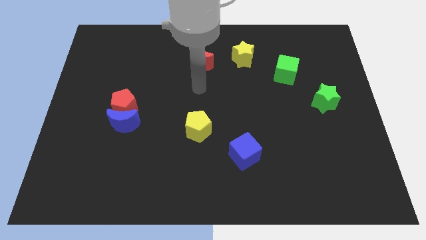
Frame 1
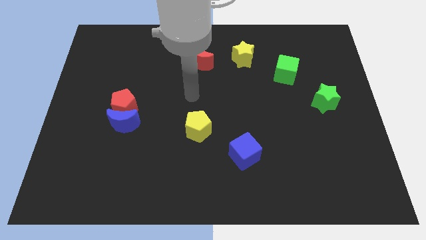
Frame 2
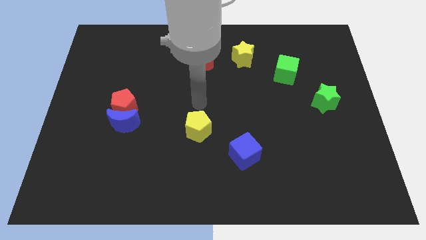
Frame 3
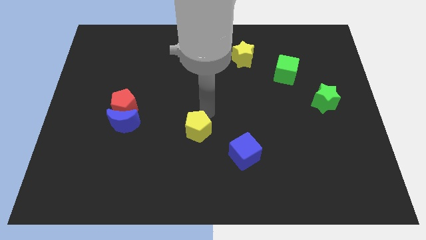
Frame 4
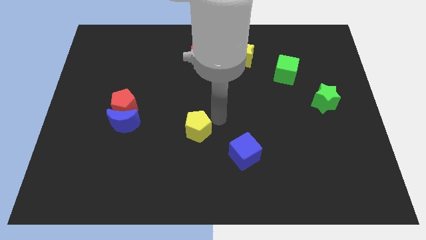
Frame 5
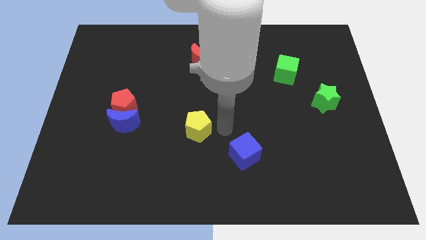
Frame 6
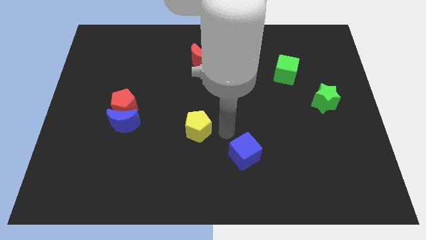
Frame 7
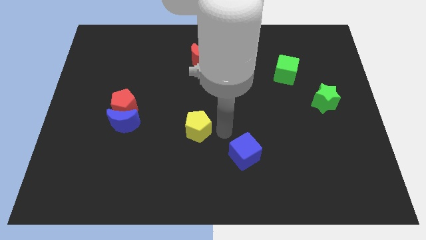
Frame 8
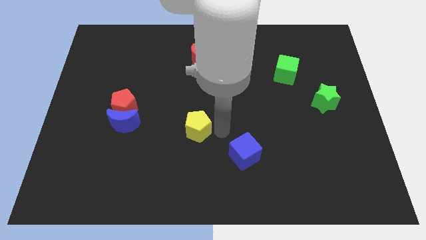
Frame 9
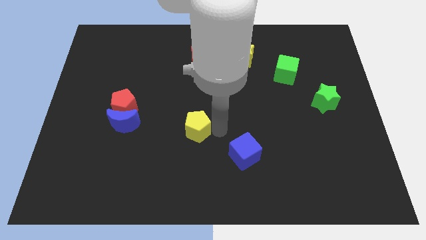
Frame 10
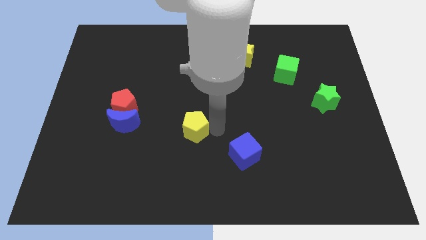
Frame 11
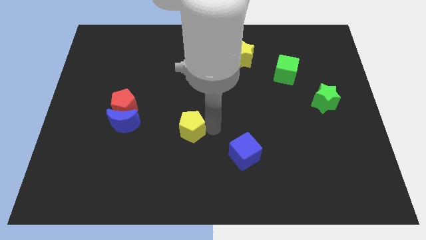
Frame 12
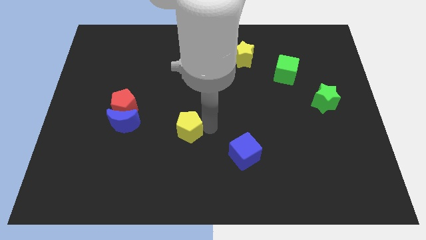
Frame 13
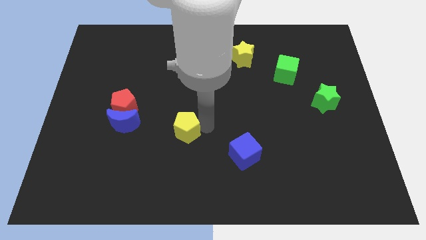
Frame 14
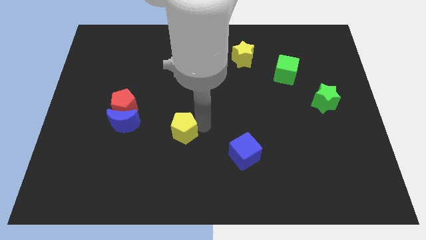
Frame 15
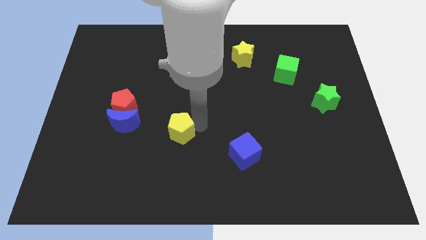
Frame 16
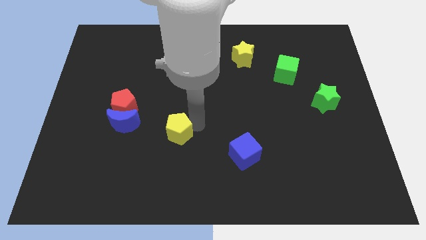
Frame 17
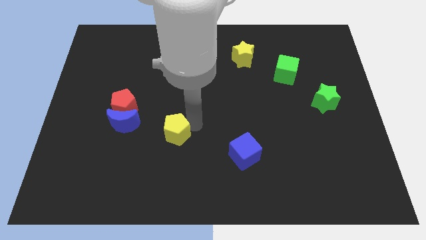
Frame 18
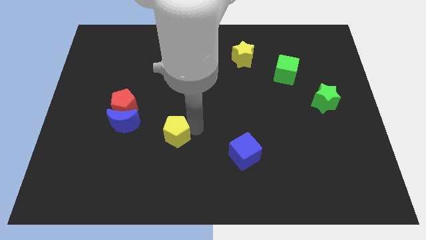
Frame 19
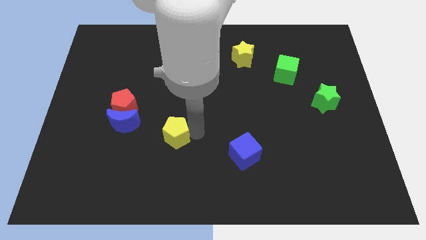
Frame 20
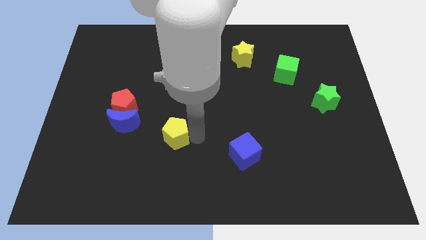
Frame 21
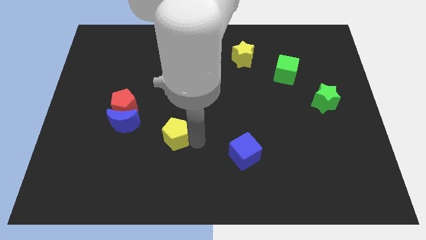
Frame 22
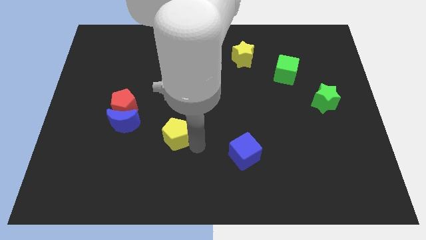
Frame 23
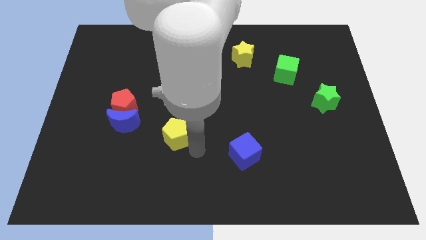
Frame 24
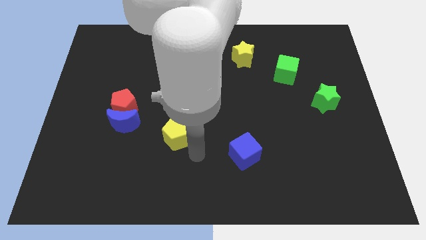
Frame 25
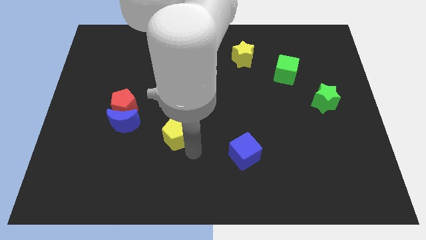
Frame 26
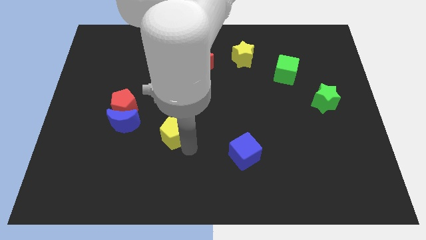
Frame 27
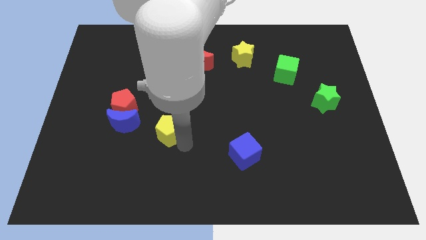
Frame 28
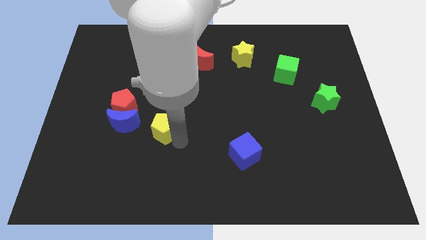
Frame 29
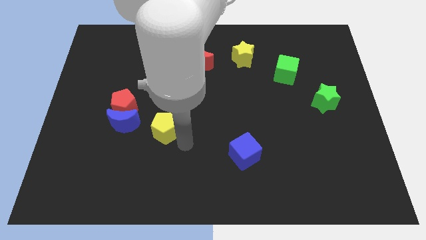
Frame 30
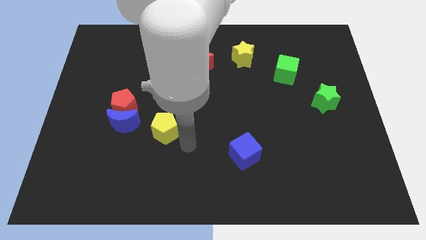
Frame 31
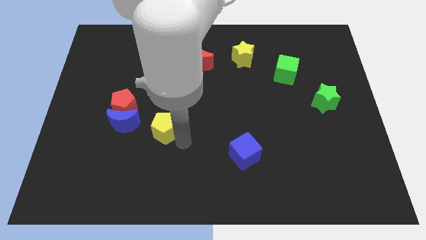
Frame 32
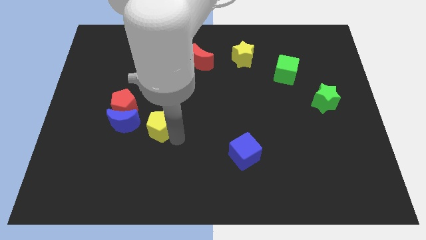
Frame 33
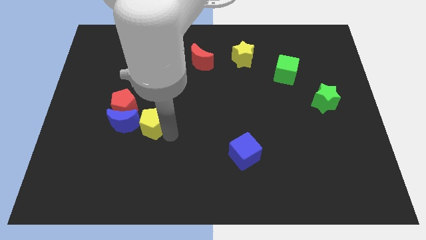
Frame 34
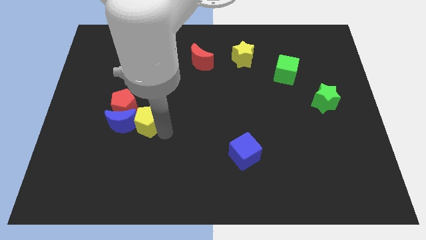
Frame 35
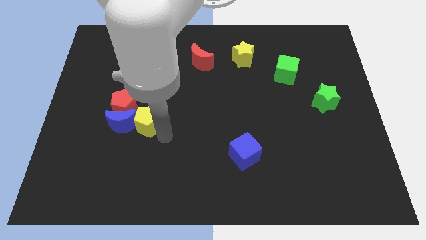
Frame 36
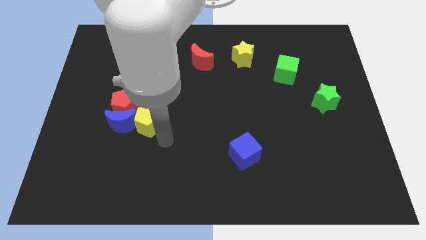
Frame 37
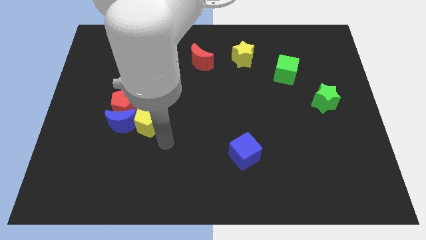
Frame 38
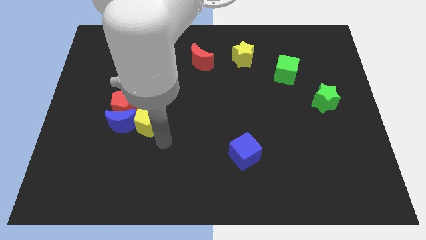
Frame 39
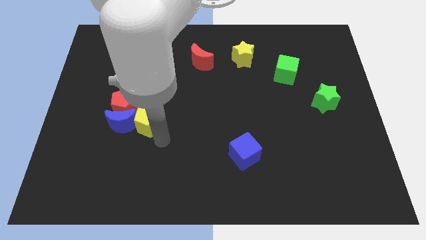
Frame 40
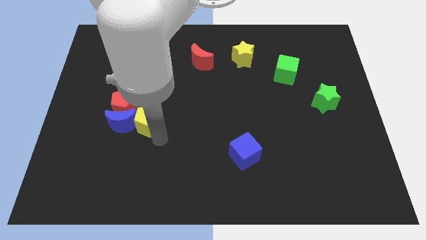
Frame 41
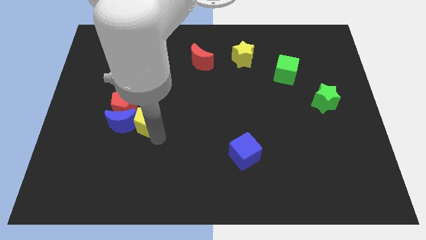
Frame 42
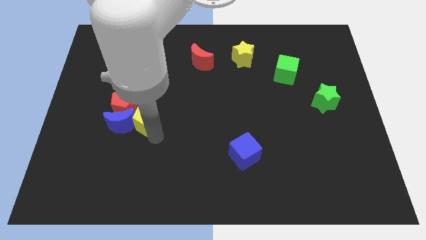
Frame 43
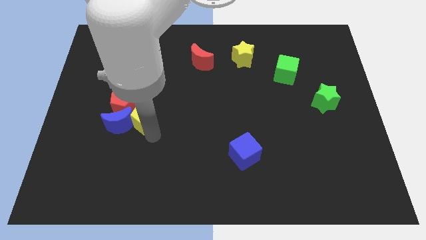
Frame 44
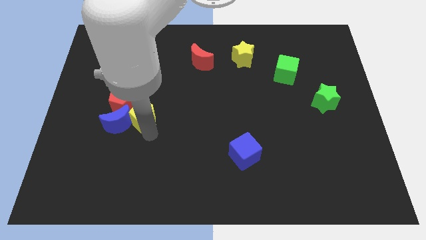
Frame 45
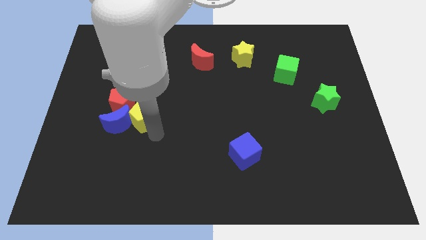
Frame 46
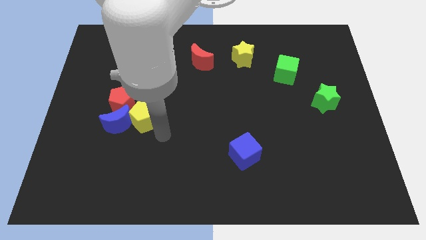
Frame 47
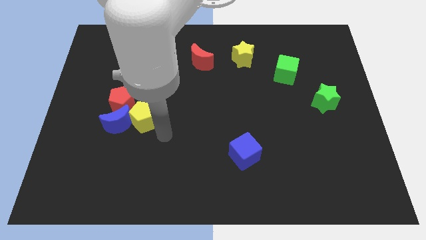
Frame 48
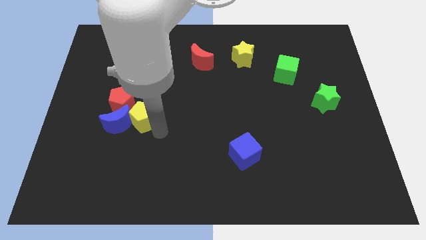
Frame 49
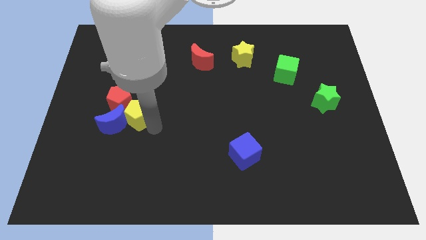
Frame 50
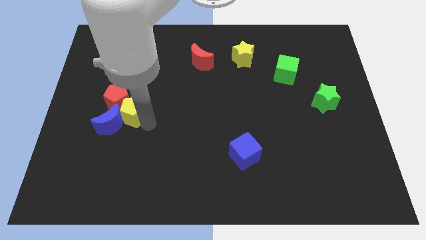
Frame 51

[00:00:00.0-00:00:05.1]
move the yellow pentagon close to the red pentagon

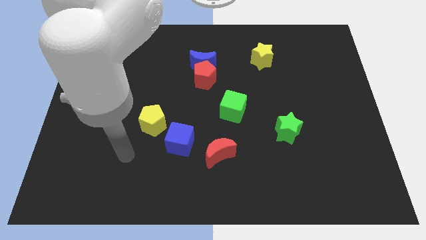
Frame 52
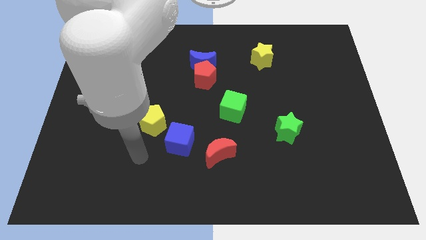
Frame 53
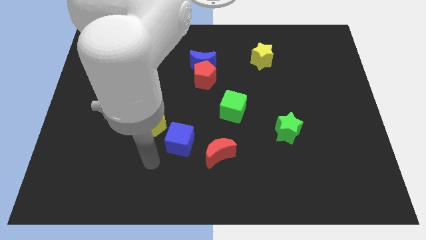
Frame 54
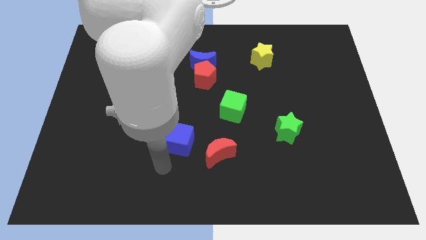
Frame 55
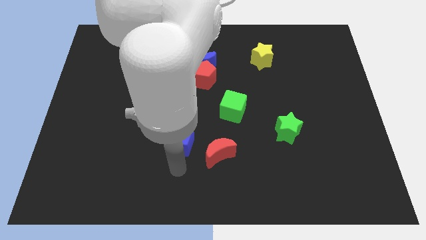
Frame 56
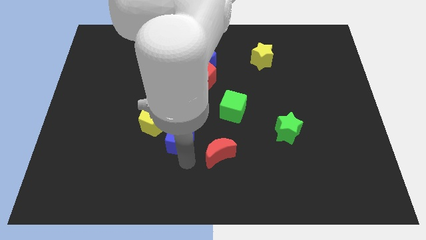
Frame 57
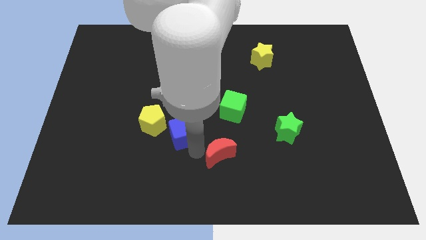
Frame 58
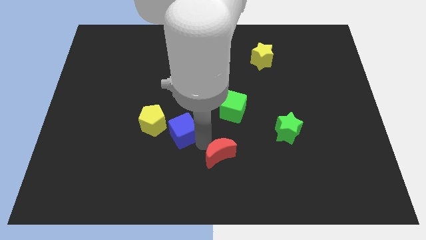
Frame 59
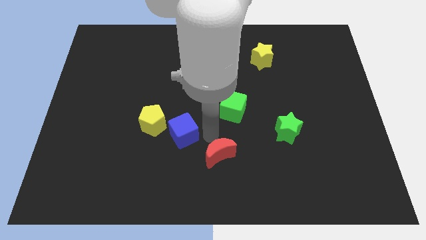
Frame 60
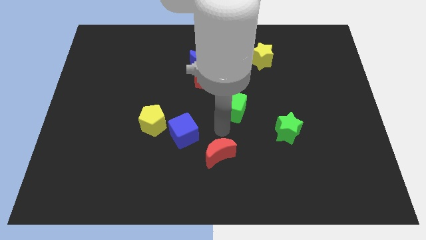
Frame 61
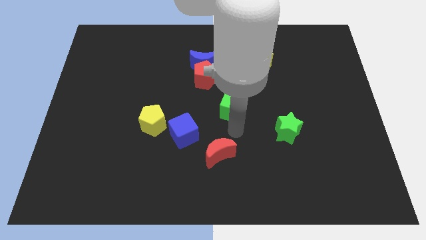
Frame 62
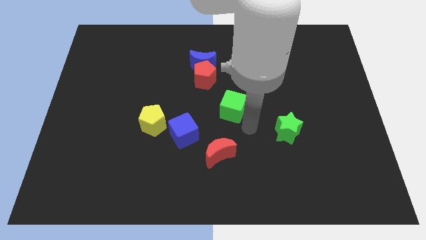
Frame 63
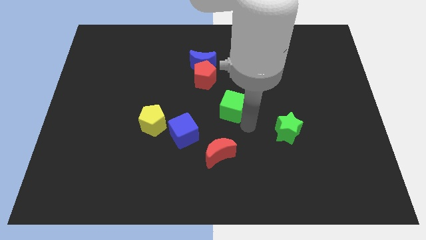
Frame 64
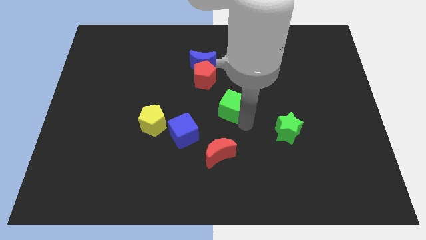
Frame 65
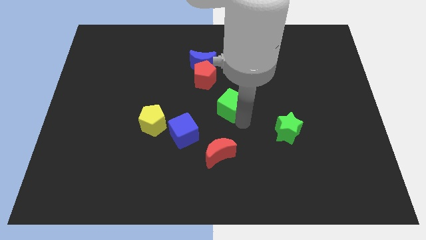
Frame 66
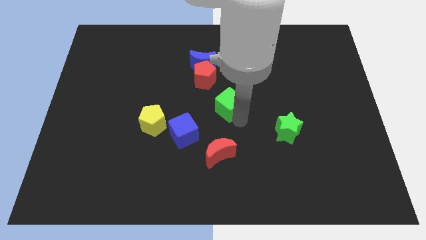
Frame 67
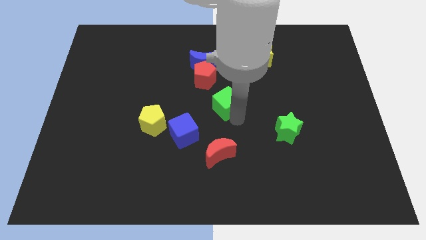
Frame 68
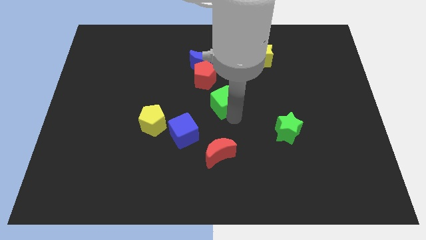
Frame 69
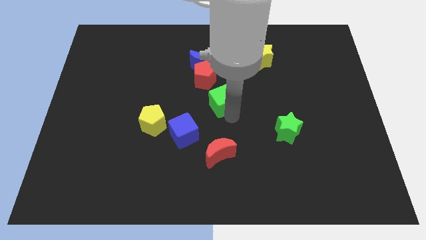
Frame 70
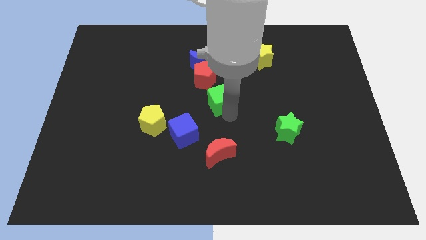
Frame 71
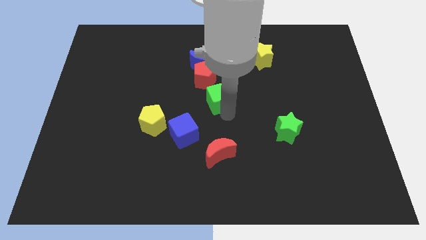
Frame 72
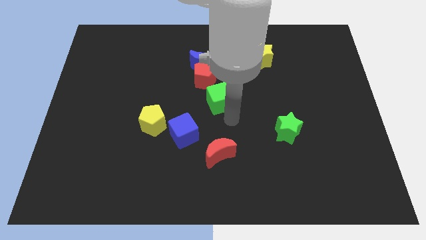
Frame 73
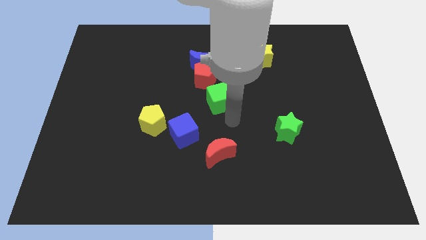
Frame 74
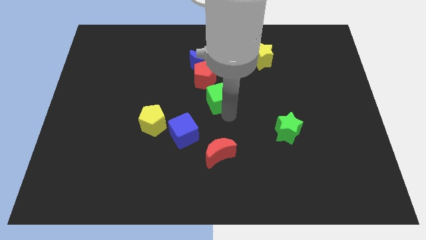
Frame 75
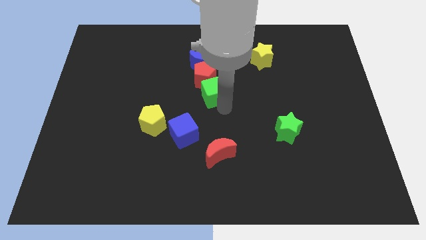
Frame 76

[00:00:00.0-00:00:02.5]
push the green cube to the red pentagon
